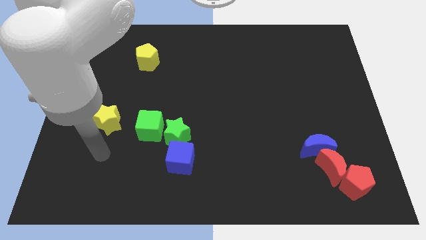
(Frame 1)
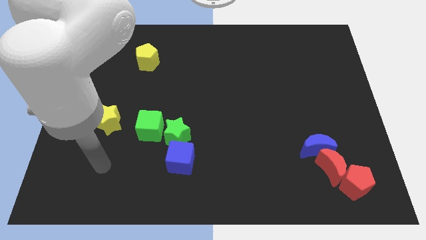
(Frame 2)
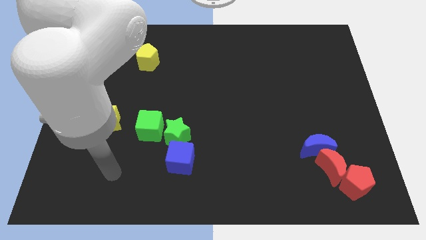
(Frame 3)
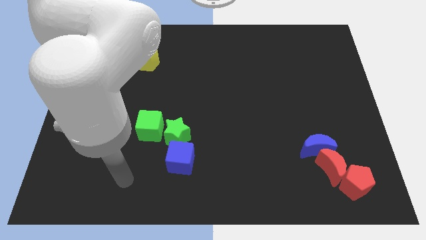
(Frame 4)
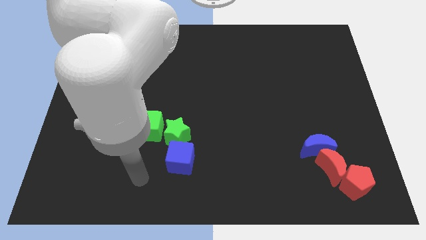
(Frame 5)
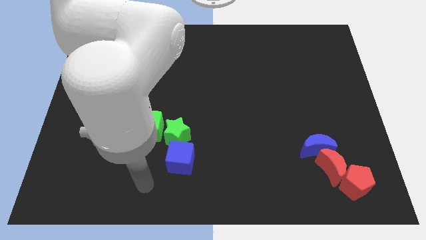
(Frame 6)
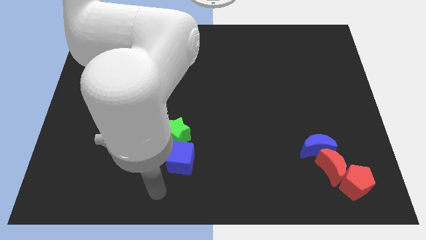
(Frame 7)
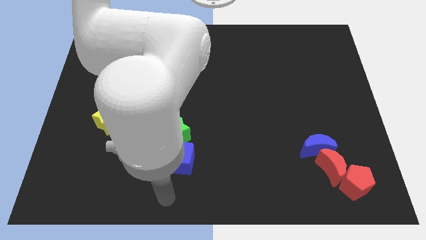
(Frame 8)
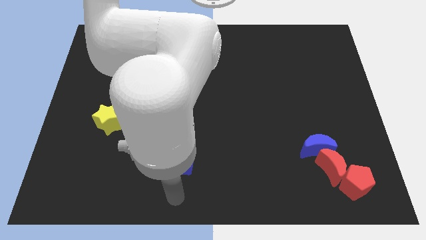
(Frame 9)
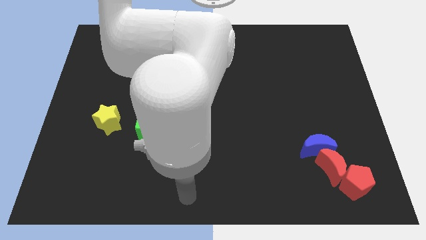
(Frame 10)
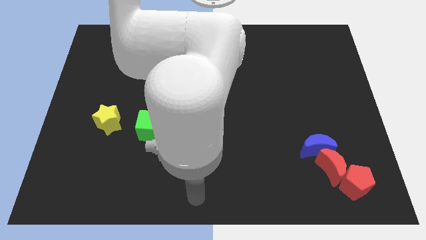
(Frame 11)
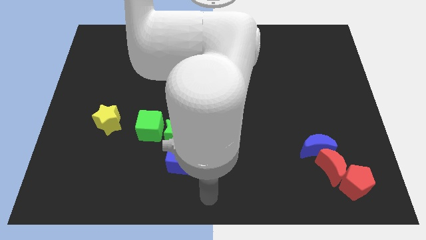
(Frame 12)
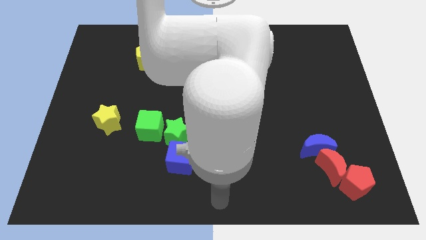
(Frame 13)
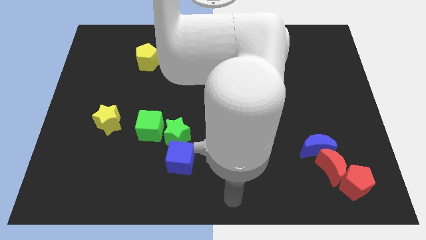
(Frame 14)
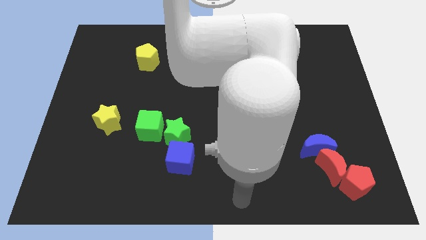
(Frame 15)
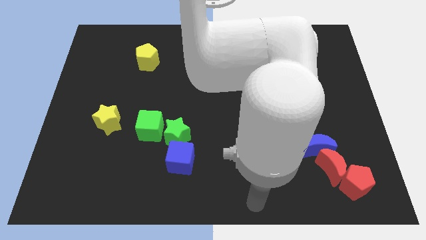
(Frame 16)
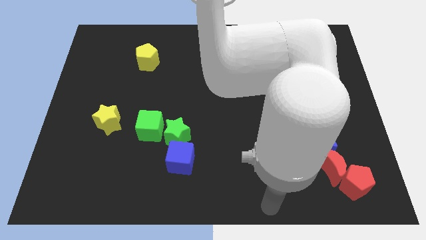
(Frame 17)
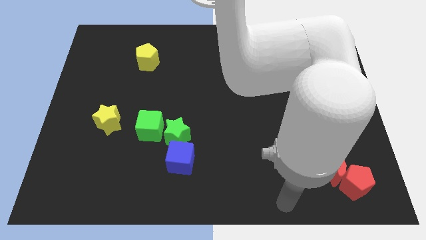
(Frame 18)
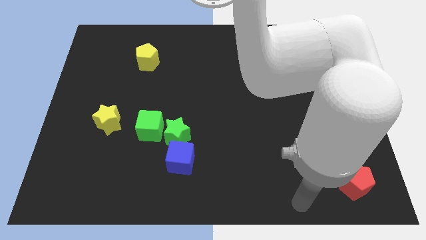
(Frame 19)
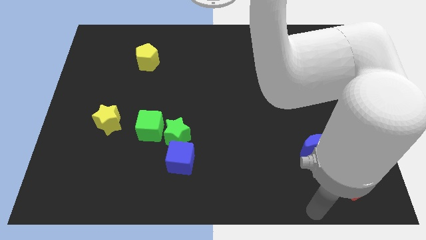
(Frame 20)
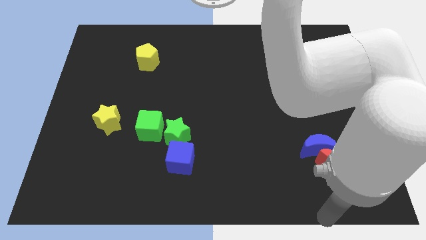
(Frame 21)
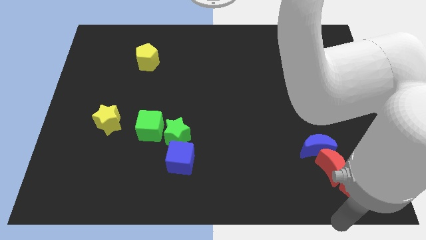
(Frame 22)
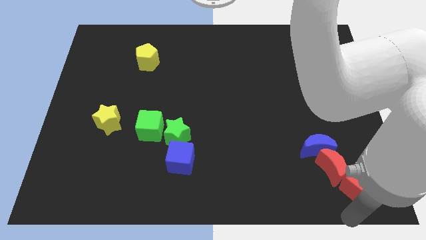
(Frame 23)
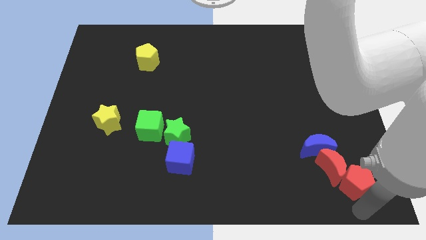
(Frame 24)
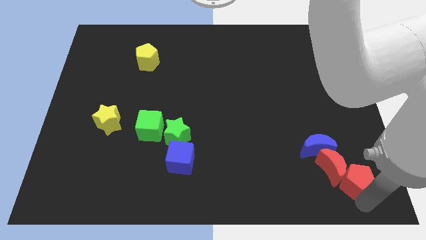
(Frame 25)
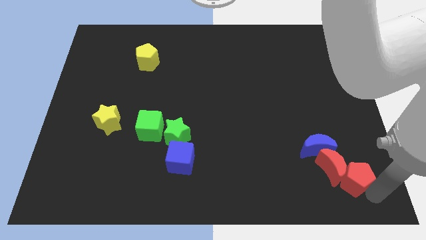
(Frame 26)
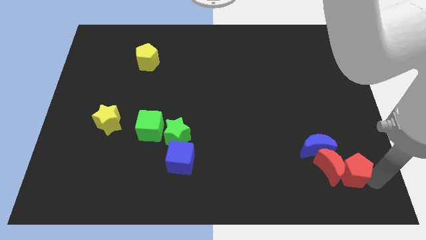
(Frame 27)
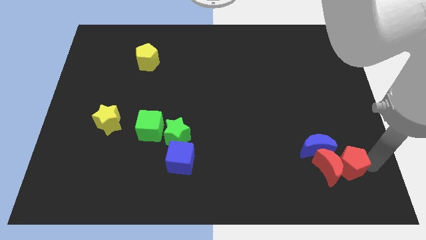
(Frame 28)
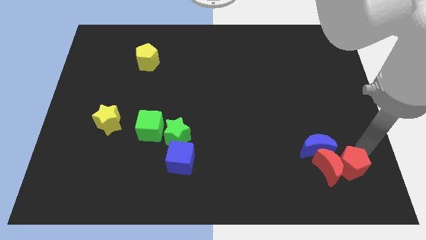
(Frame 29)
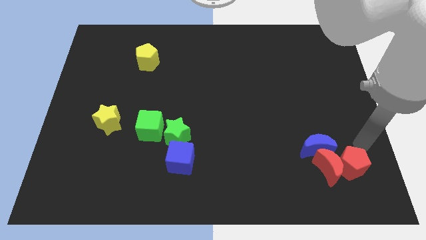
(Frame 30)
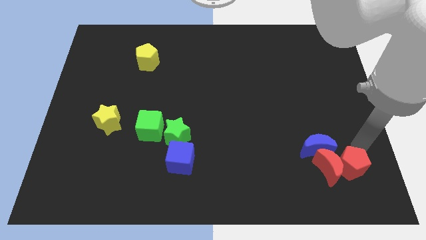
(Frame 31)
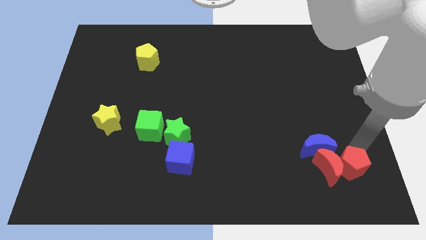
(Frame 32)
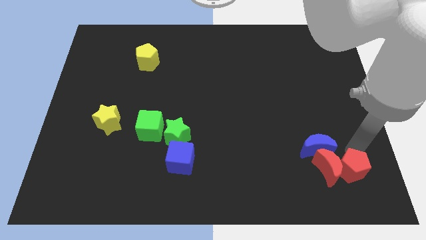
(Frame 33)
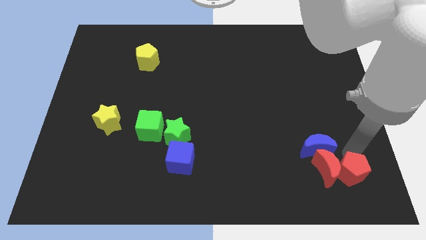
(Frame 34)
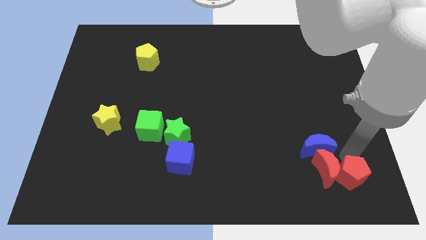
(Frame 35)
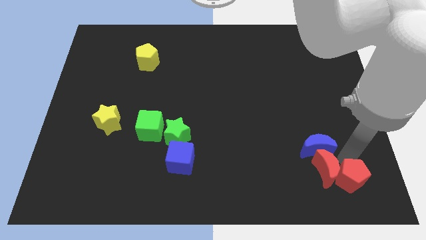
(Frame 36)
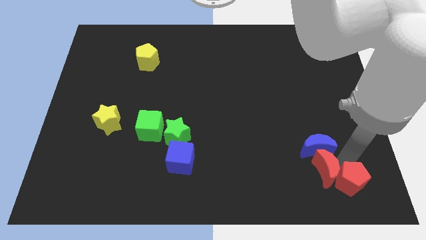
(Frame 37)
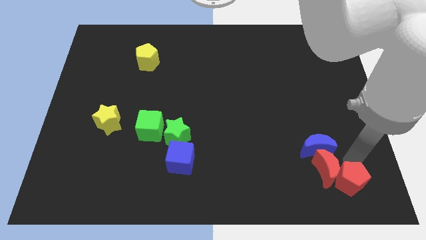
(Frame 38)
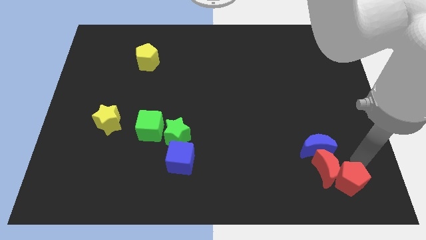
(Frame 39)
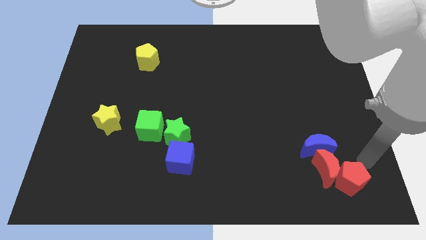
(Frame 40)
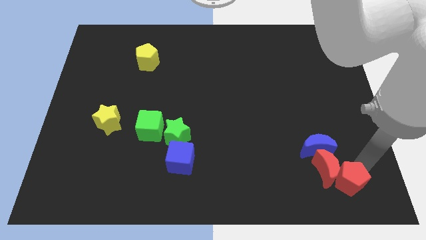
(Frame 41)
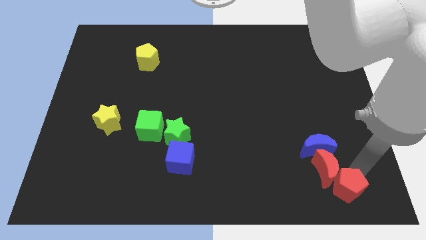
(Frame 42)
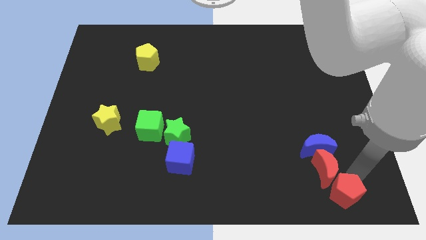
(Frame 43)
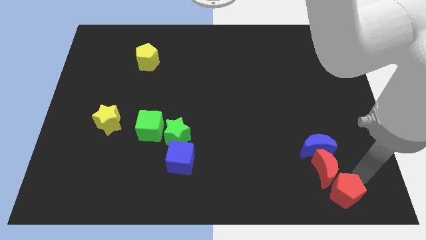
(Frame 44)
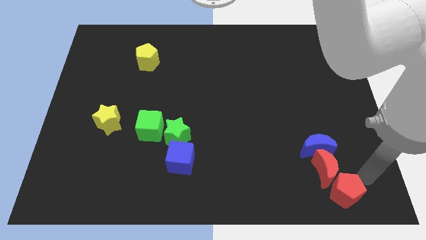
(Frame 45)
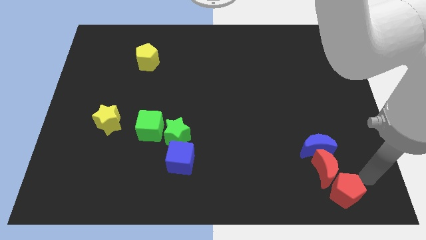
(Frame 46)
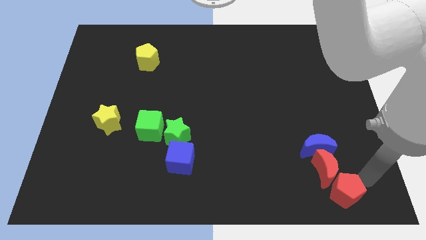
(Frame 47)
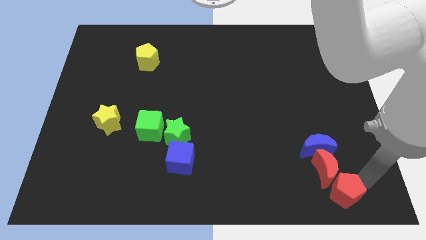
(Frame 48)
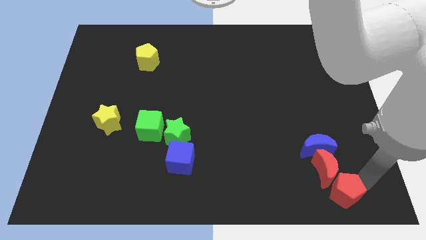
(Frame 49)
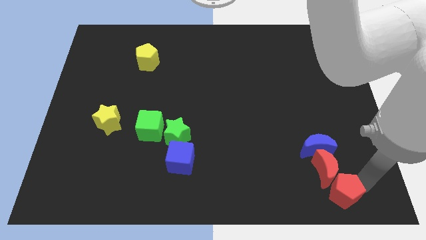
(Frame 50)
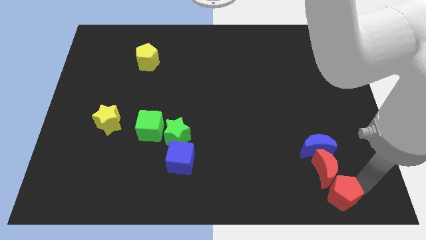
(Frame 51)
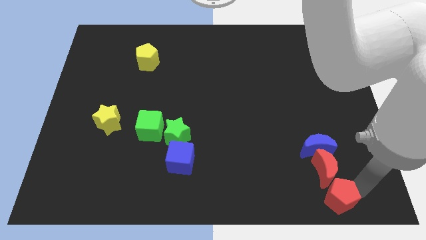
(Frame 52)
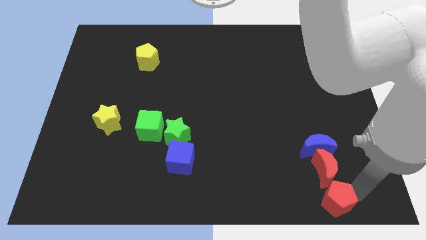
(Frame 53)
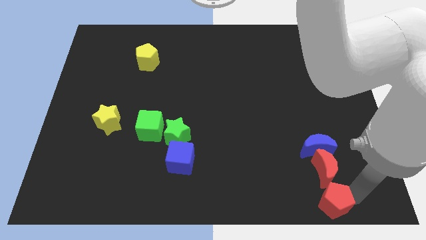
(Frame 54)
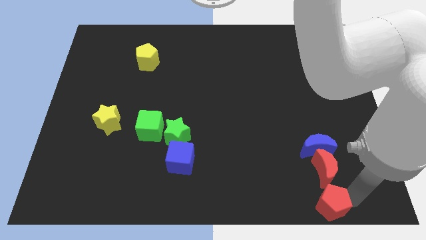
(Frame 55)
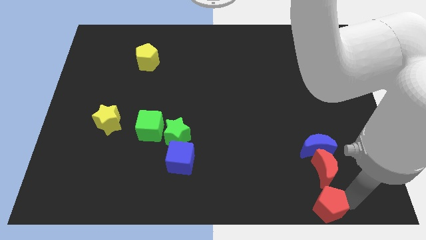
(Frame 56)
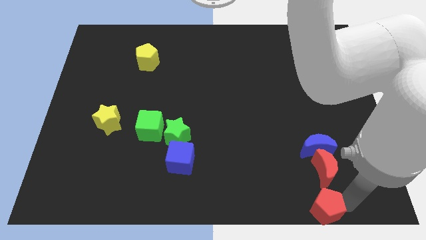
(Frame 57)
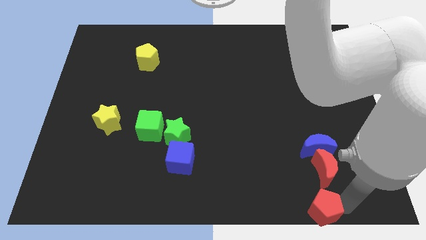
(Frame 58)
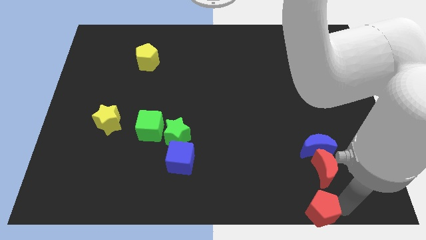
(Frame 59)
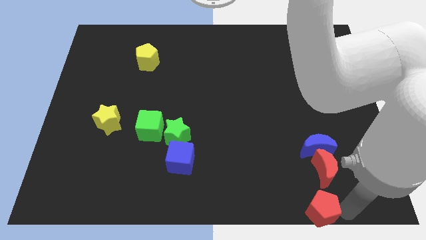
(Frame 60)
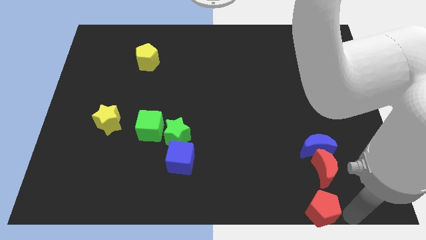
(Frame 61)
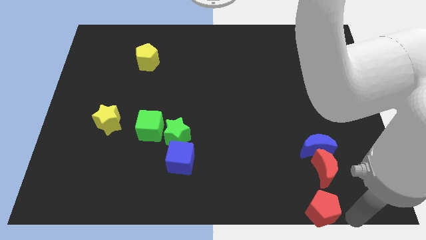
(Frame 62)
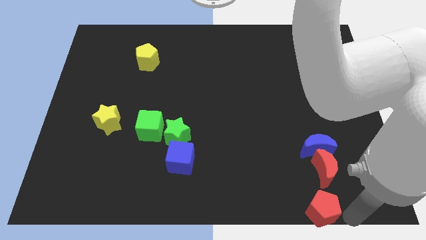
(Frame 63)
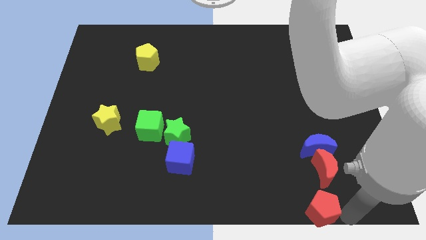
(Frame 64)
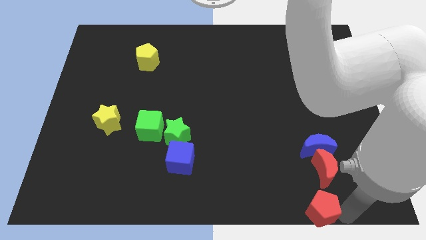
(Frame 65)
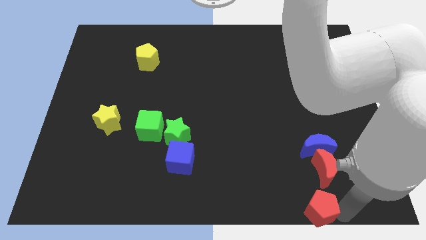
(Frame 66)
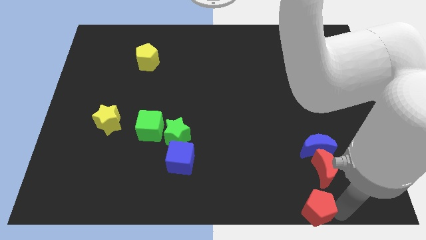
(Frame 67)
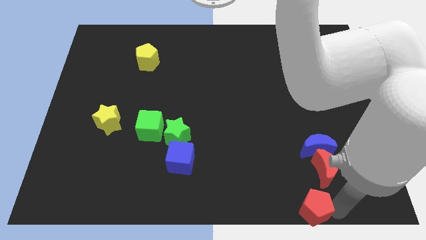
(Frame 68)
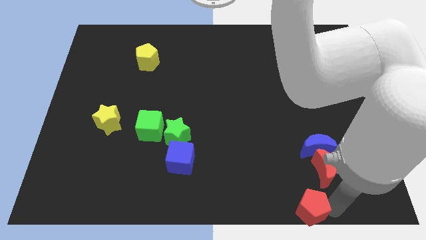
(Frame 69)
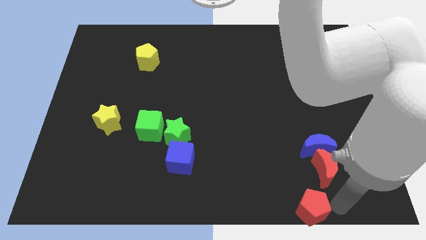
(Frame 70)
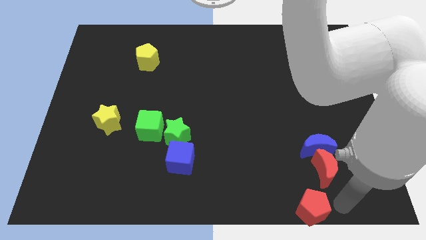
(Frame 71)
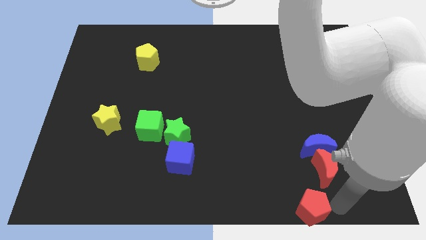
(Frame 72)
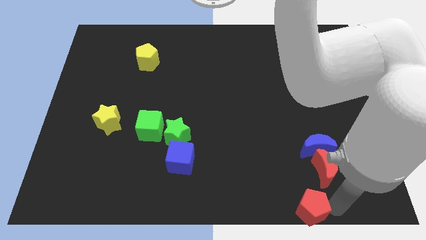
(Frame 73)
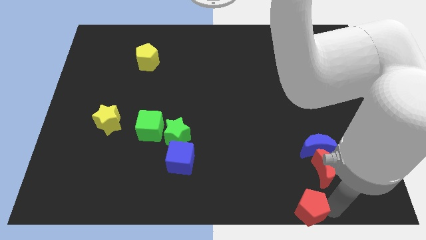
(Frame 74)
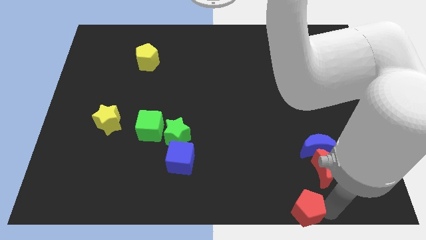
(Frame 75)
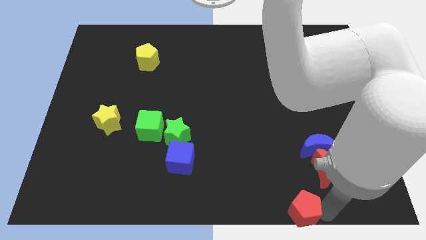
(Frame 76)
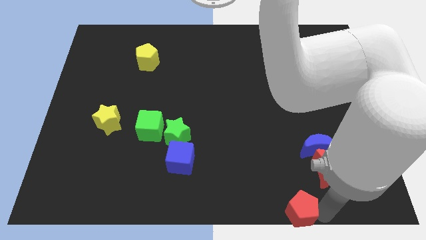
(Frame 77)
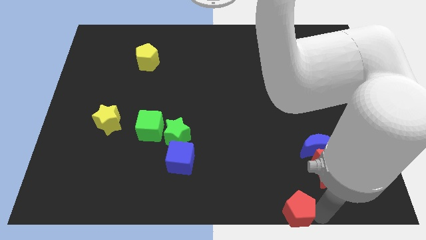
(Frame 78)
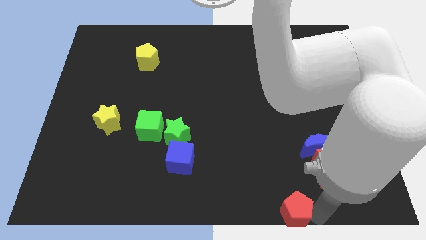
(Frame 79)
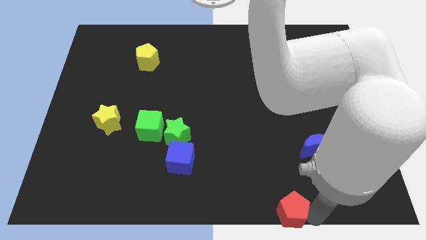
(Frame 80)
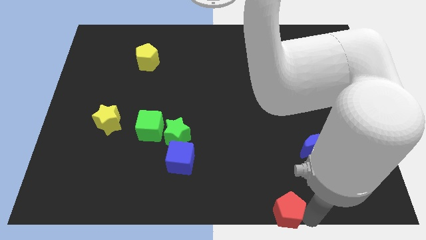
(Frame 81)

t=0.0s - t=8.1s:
slide the red pentagon to the bottom
